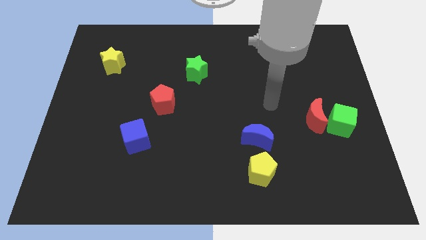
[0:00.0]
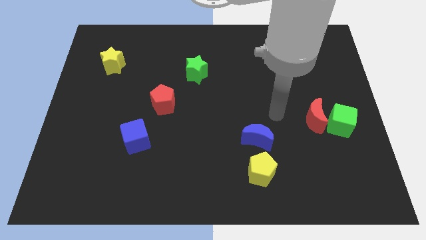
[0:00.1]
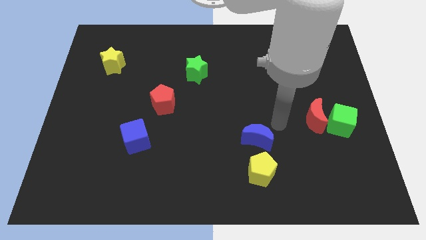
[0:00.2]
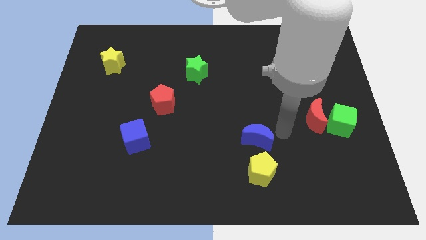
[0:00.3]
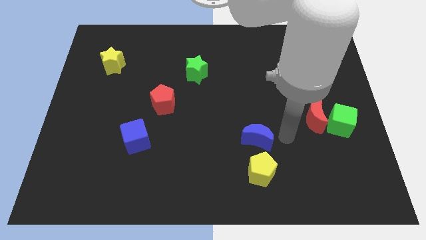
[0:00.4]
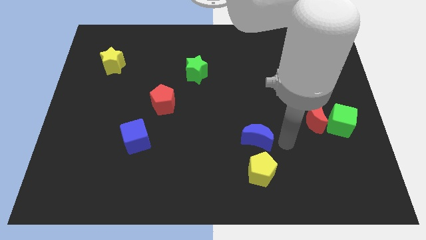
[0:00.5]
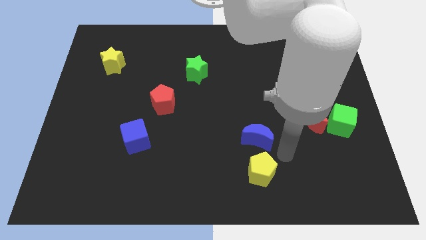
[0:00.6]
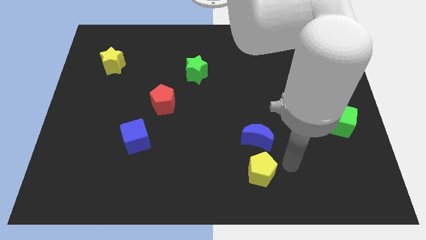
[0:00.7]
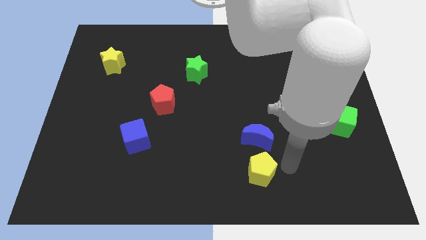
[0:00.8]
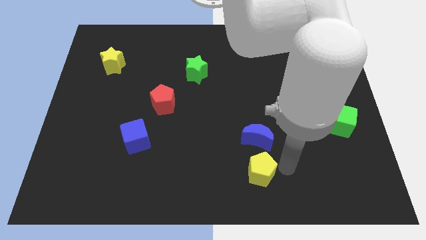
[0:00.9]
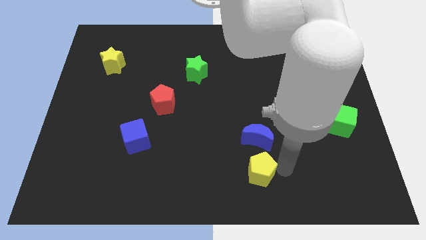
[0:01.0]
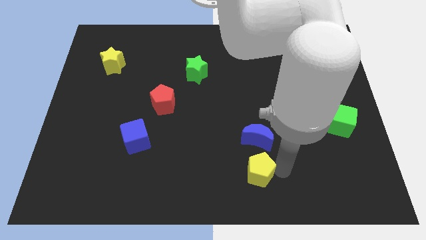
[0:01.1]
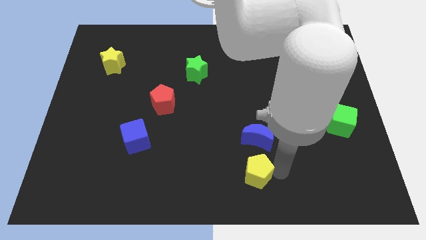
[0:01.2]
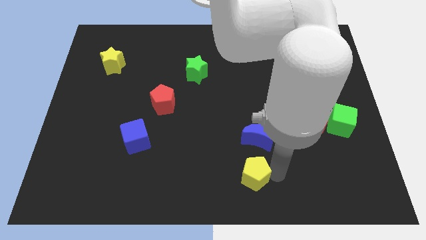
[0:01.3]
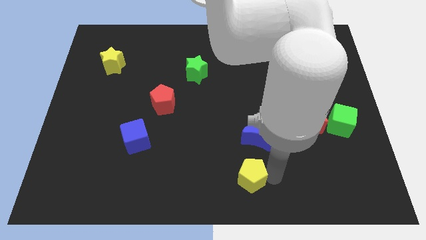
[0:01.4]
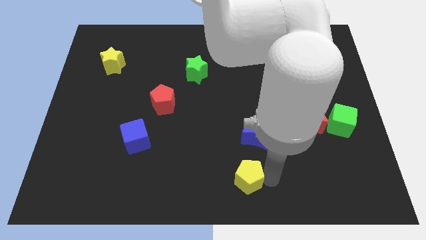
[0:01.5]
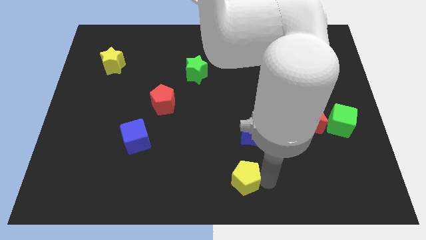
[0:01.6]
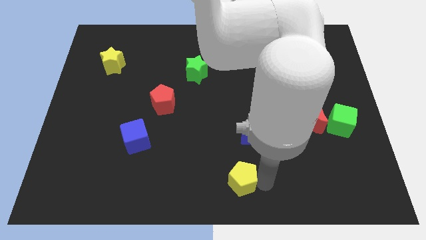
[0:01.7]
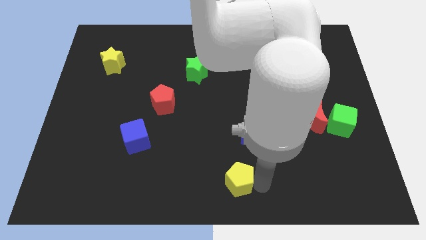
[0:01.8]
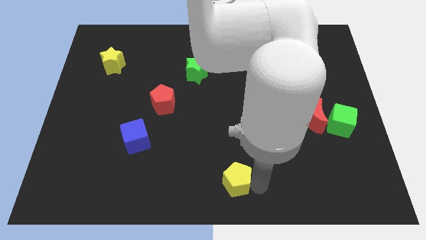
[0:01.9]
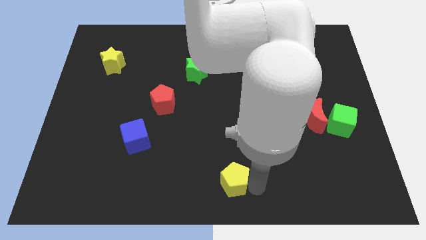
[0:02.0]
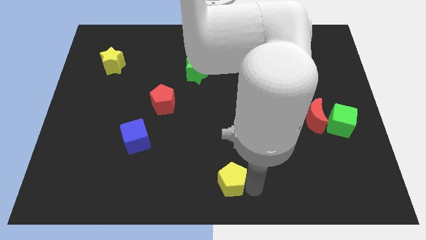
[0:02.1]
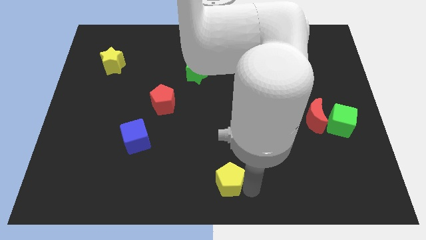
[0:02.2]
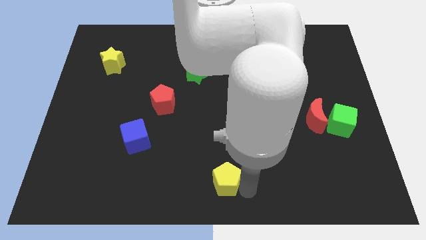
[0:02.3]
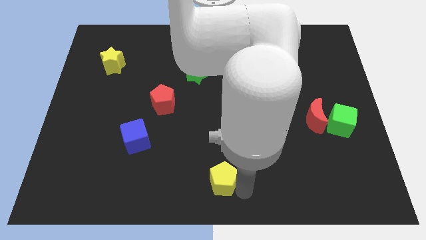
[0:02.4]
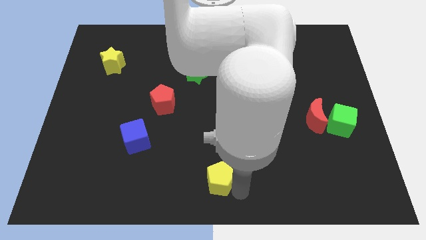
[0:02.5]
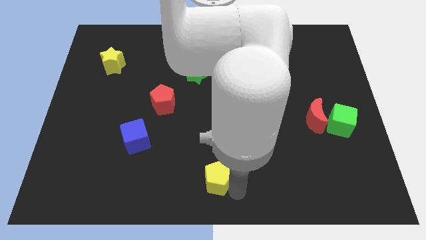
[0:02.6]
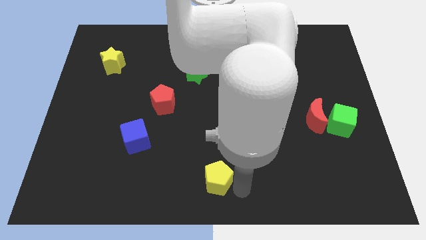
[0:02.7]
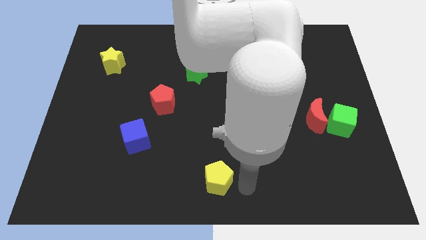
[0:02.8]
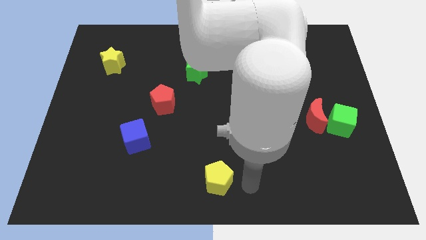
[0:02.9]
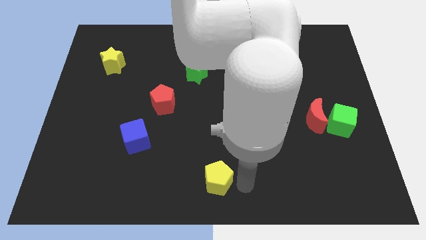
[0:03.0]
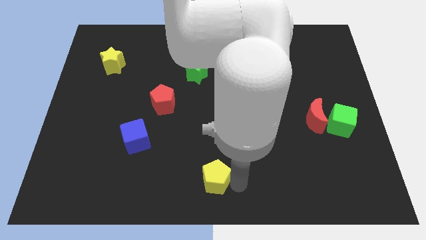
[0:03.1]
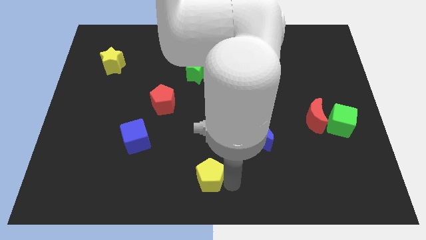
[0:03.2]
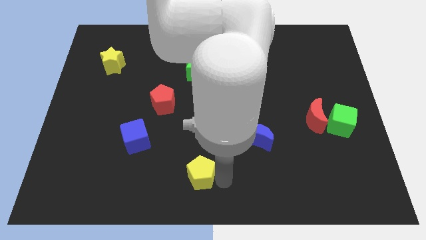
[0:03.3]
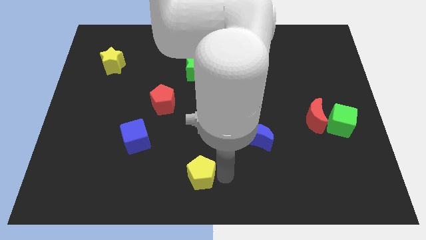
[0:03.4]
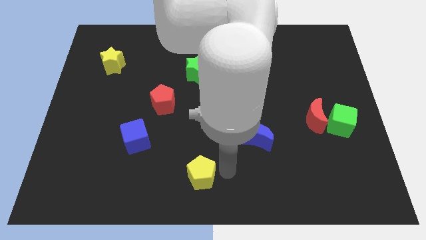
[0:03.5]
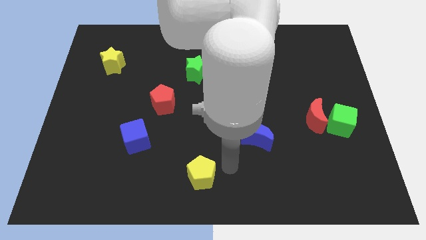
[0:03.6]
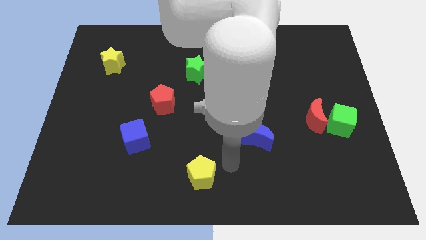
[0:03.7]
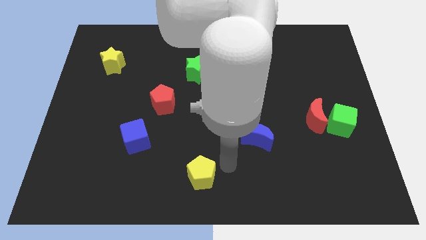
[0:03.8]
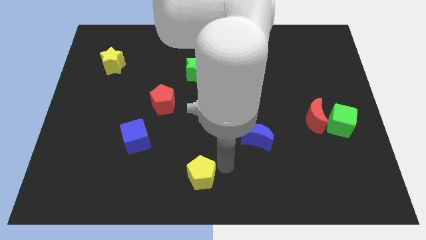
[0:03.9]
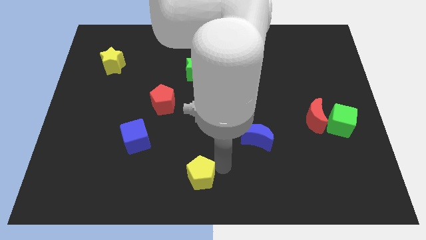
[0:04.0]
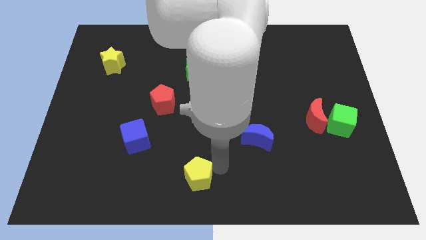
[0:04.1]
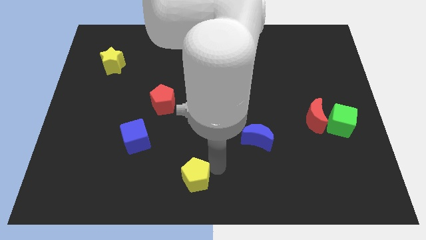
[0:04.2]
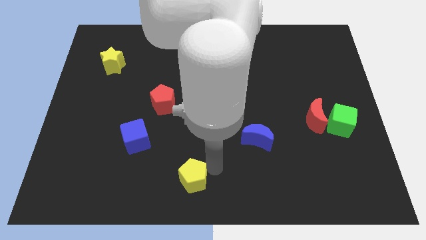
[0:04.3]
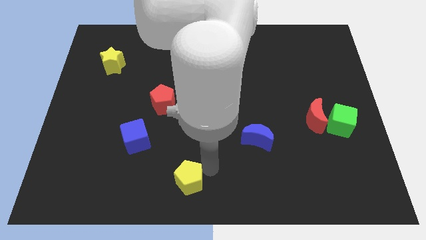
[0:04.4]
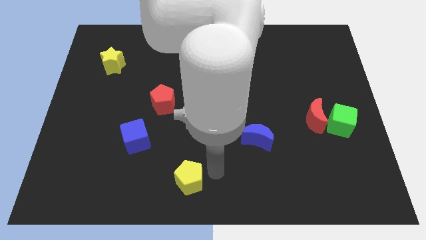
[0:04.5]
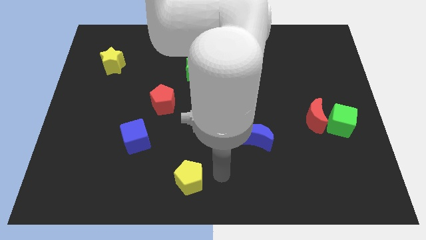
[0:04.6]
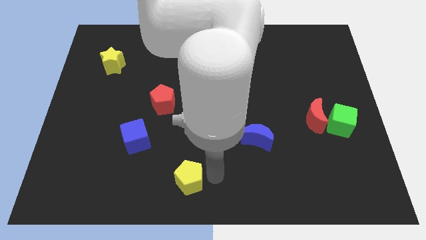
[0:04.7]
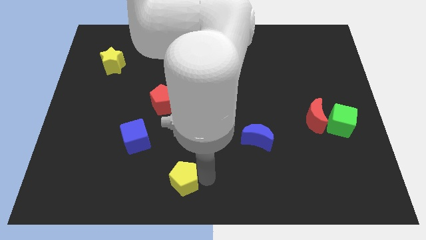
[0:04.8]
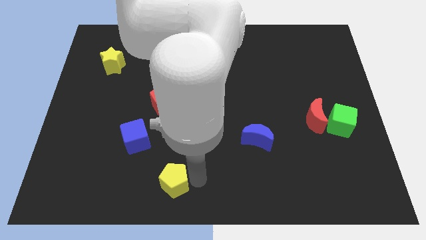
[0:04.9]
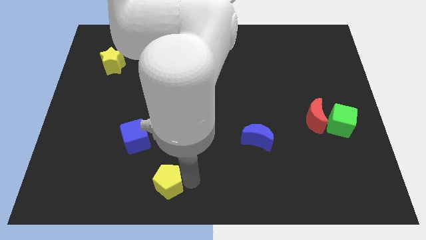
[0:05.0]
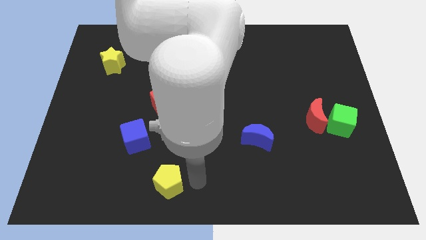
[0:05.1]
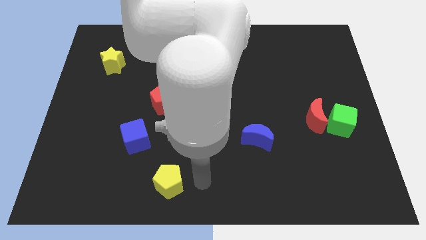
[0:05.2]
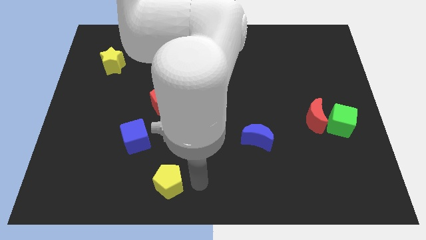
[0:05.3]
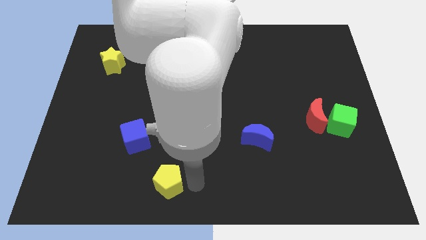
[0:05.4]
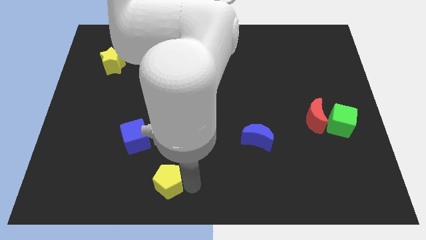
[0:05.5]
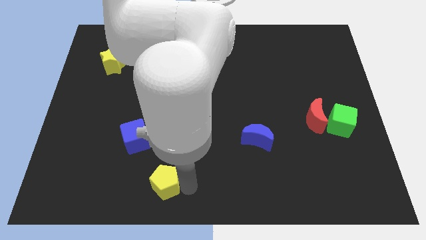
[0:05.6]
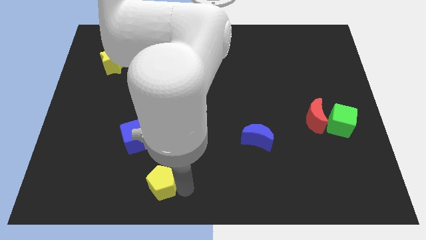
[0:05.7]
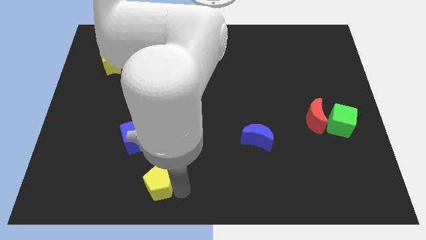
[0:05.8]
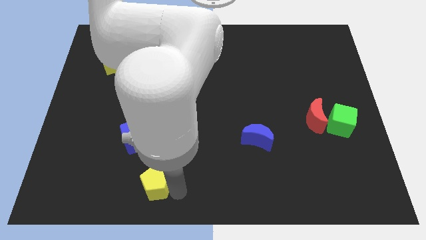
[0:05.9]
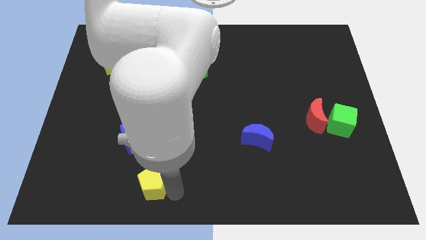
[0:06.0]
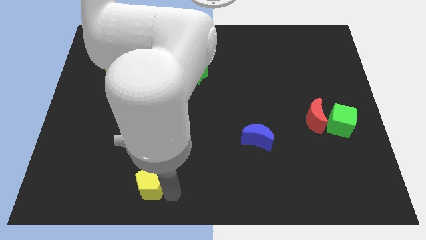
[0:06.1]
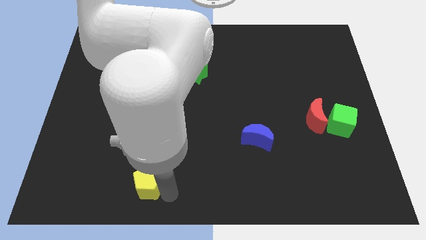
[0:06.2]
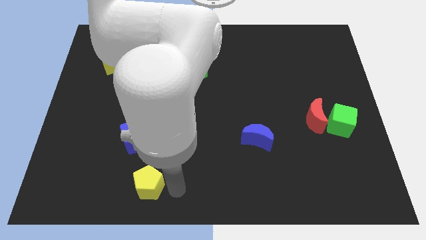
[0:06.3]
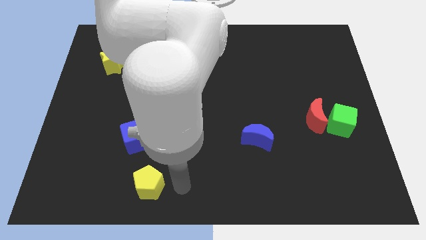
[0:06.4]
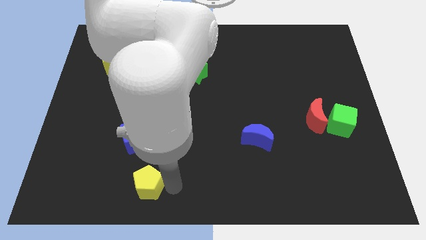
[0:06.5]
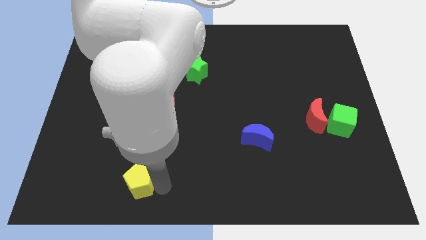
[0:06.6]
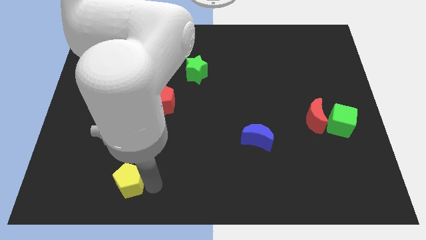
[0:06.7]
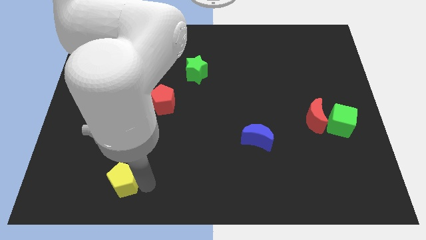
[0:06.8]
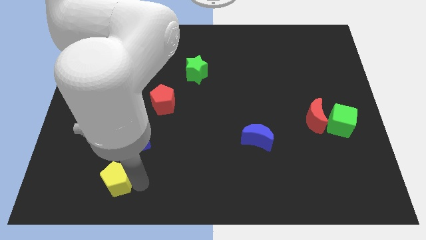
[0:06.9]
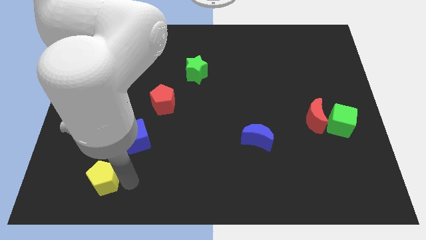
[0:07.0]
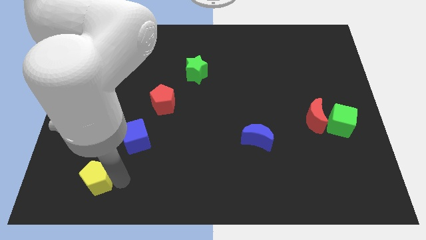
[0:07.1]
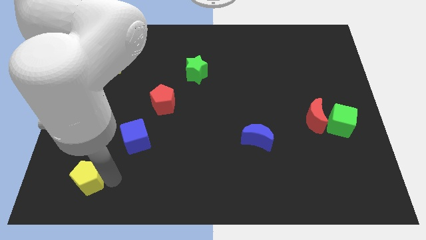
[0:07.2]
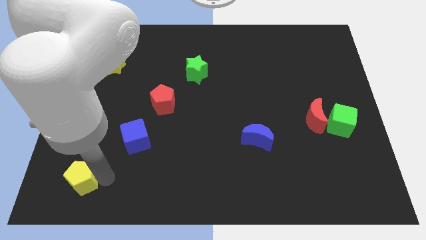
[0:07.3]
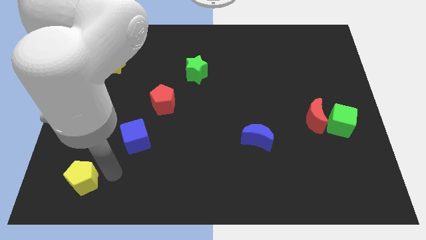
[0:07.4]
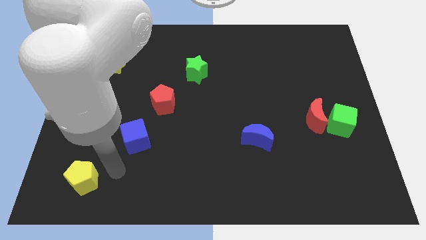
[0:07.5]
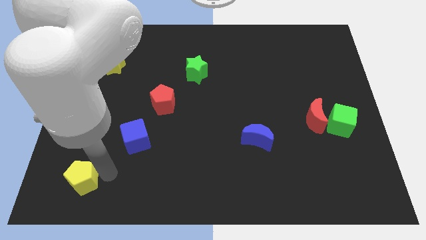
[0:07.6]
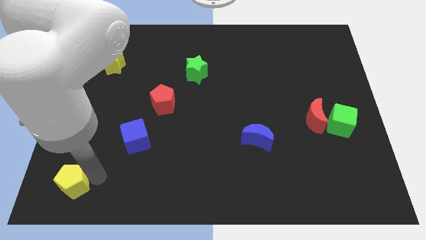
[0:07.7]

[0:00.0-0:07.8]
slide the yellow pentagon to the bottom left of the board
